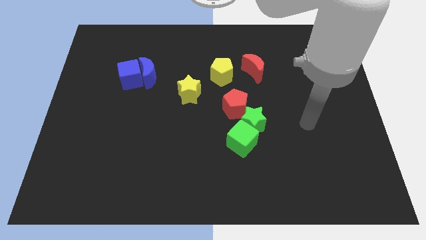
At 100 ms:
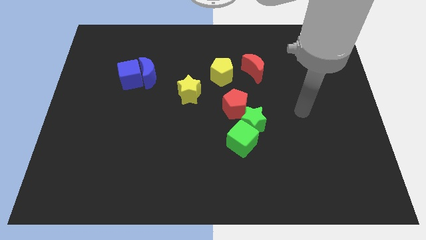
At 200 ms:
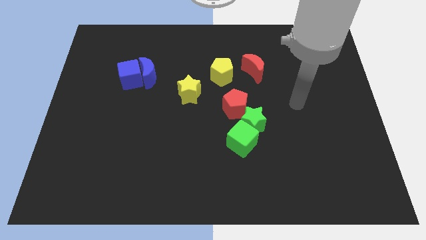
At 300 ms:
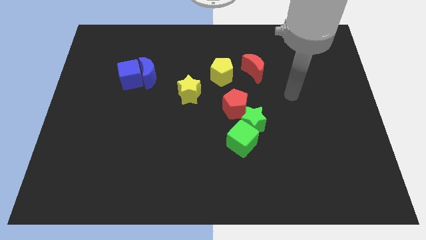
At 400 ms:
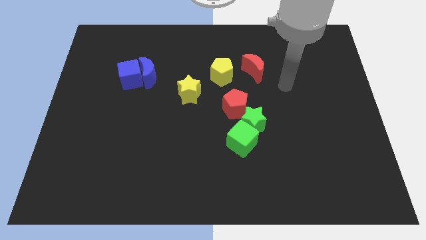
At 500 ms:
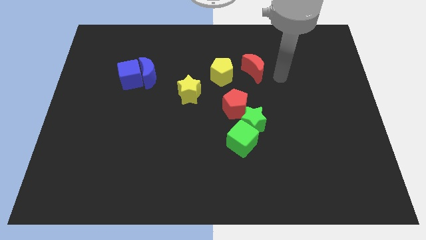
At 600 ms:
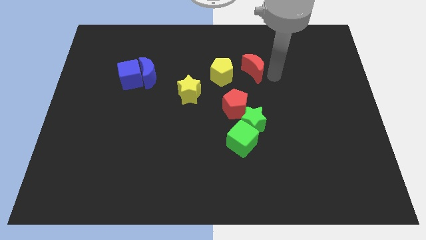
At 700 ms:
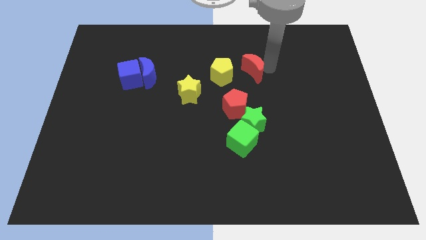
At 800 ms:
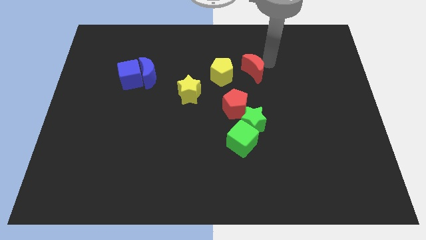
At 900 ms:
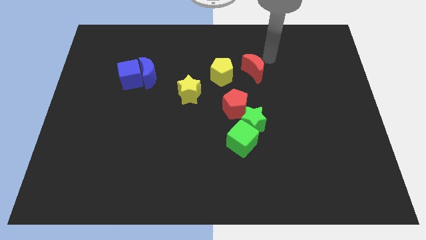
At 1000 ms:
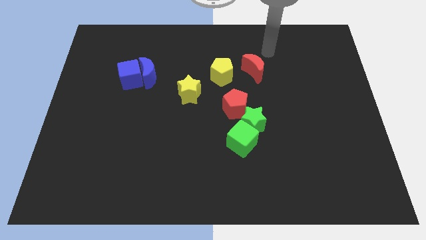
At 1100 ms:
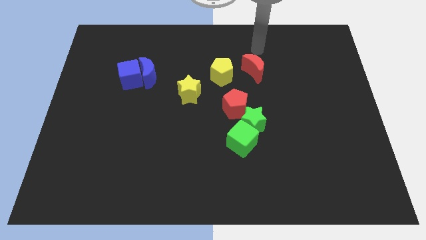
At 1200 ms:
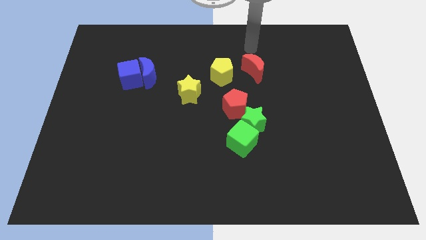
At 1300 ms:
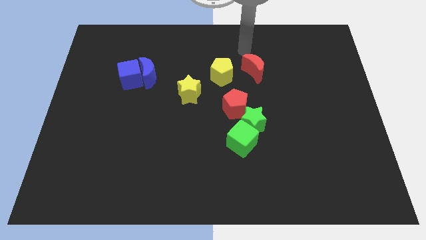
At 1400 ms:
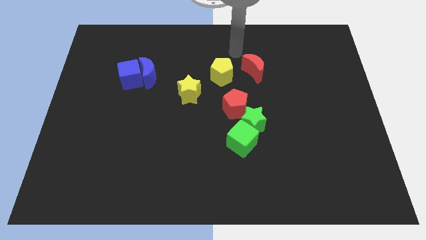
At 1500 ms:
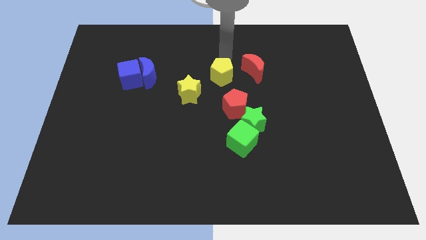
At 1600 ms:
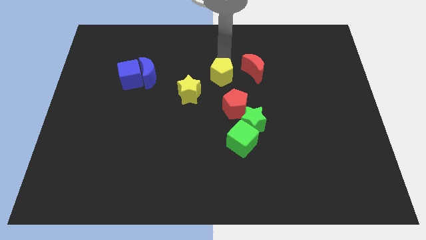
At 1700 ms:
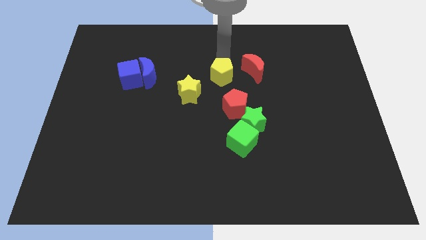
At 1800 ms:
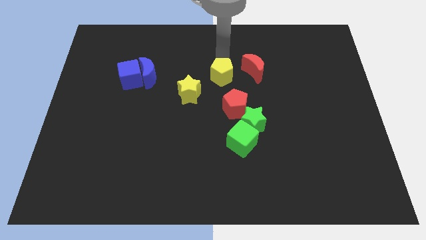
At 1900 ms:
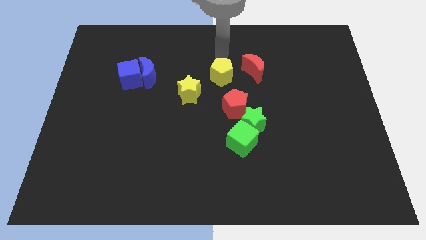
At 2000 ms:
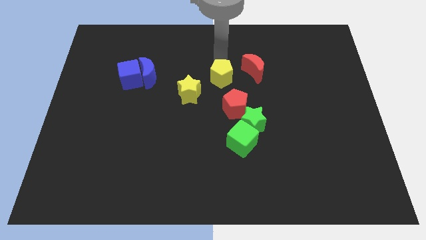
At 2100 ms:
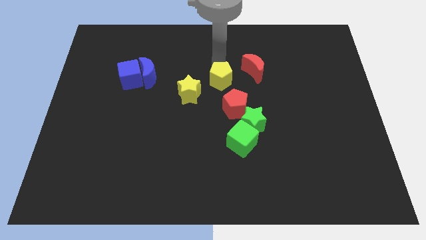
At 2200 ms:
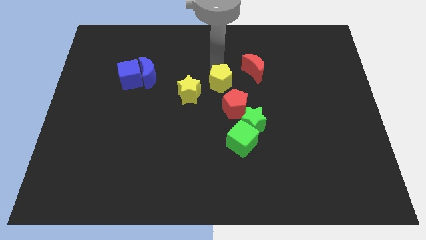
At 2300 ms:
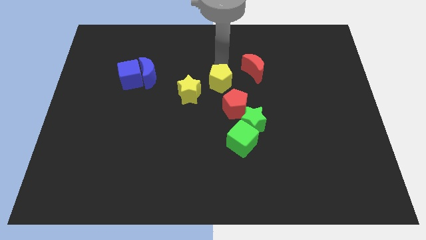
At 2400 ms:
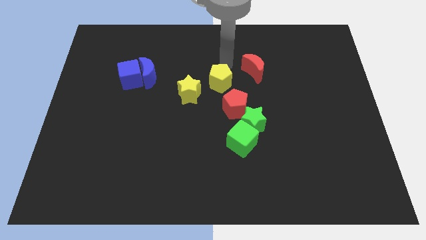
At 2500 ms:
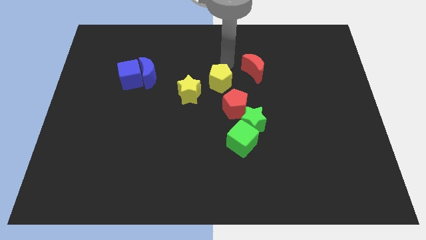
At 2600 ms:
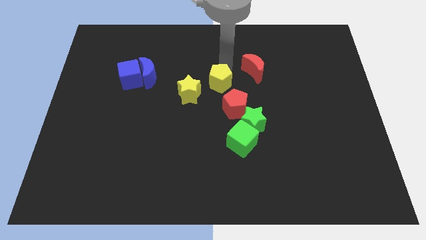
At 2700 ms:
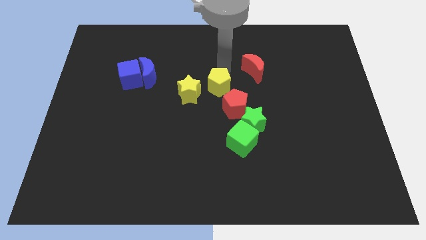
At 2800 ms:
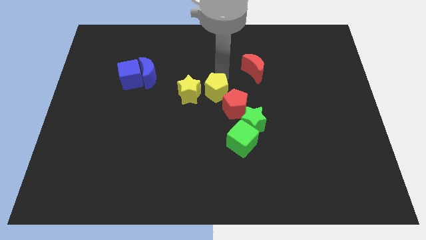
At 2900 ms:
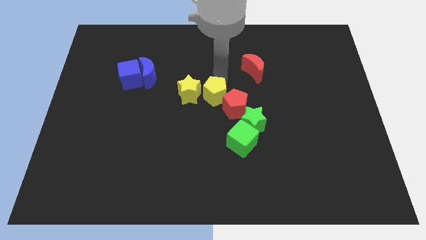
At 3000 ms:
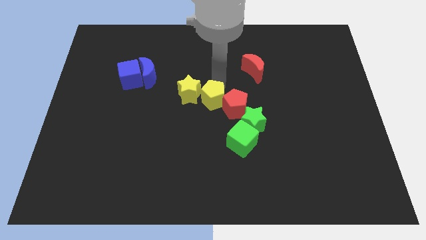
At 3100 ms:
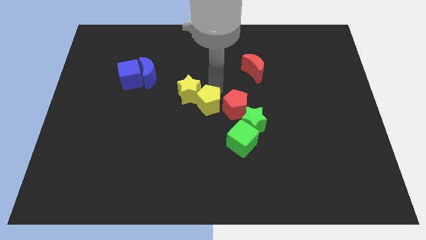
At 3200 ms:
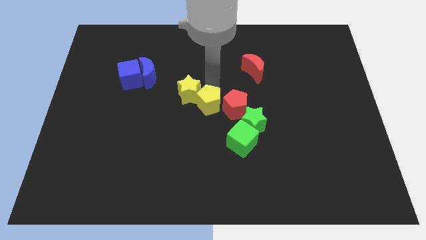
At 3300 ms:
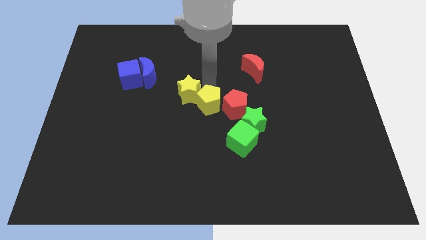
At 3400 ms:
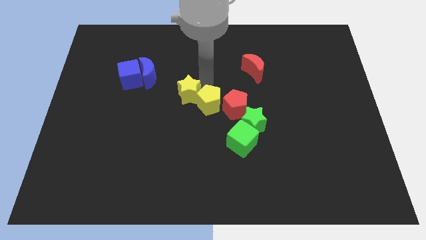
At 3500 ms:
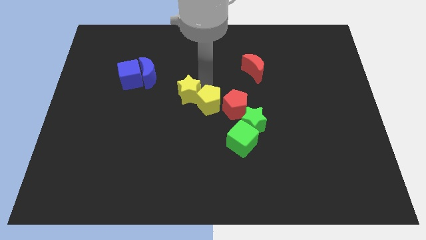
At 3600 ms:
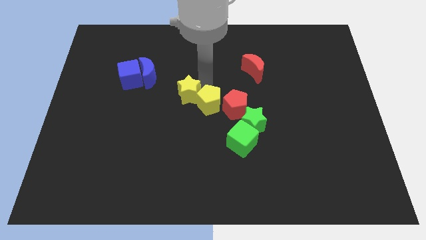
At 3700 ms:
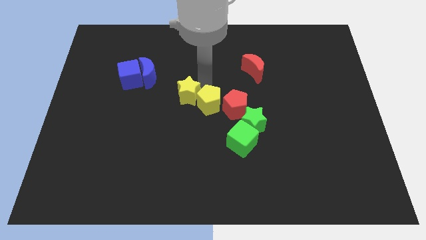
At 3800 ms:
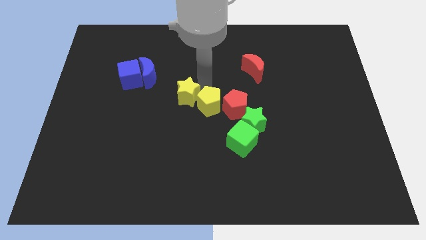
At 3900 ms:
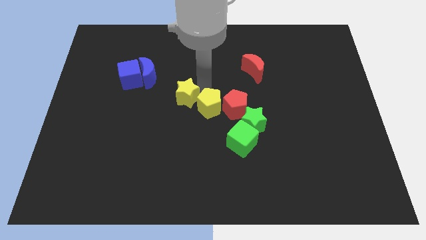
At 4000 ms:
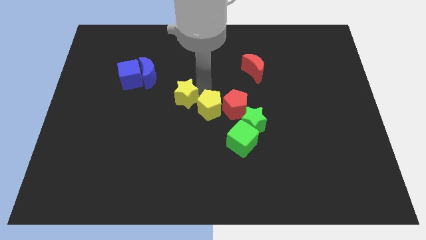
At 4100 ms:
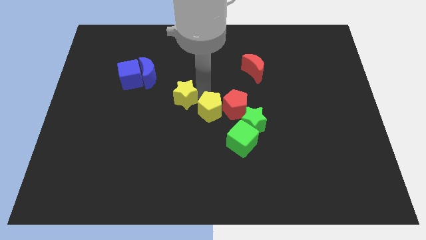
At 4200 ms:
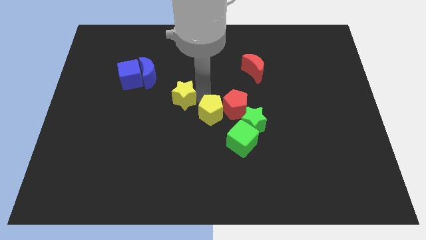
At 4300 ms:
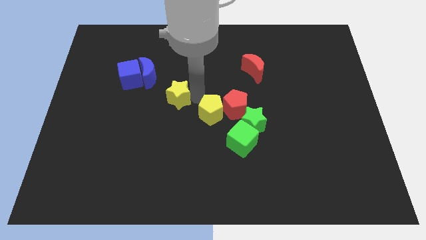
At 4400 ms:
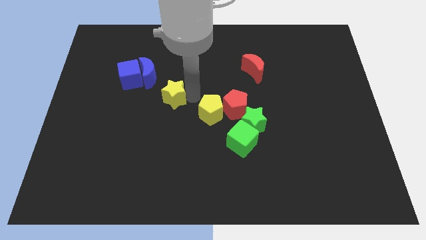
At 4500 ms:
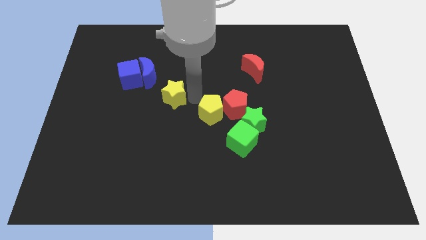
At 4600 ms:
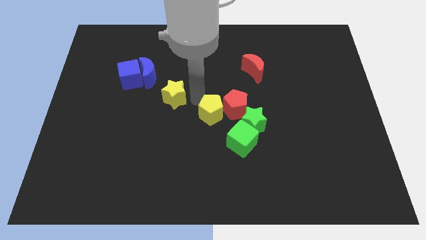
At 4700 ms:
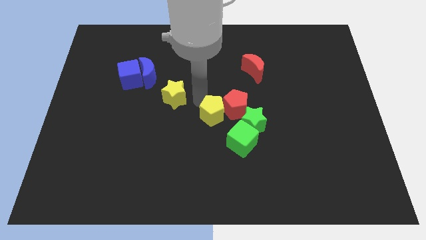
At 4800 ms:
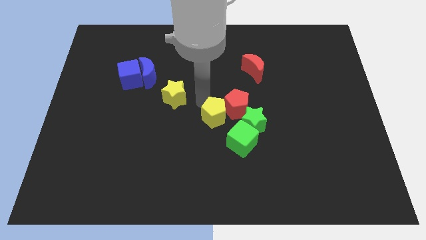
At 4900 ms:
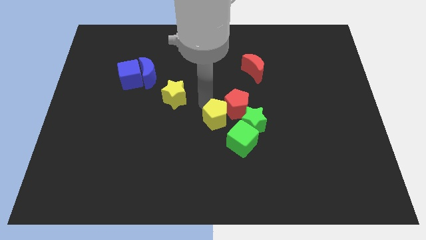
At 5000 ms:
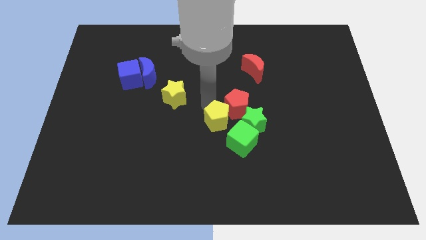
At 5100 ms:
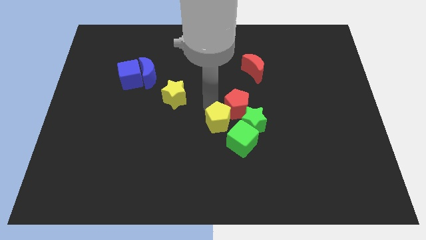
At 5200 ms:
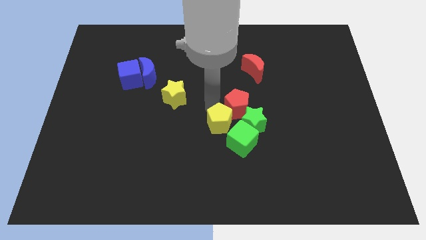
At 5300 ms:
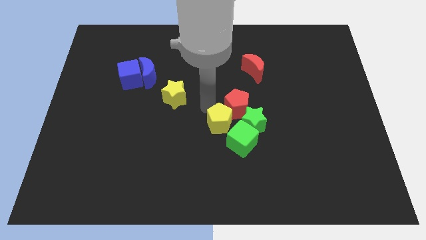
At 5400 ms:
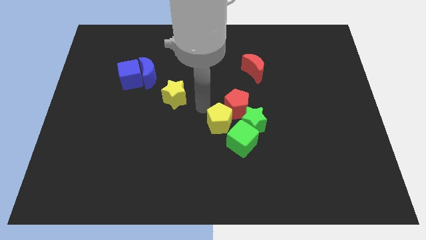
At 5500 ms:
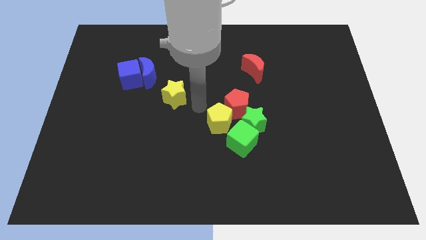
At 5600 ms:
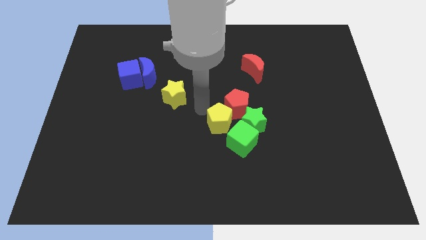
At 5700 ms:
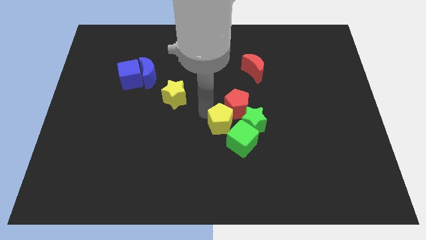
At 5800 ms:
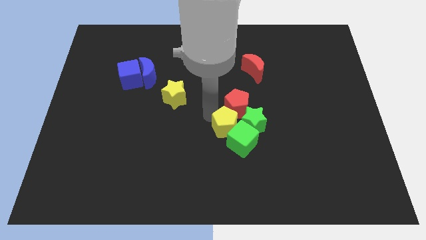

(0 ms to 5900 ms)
put the yellow pentagon close to the green cube

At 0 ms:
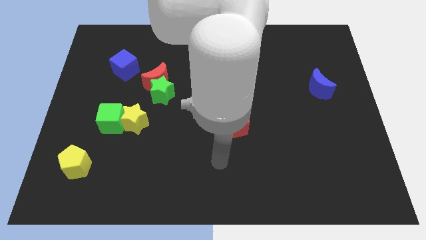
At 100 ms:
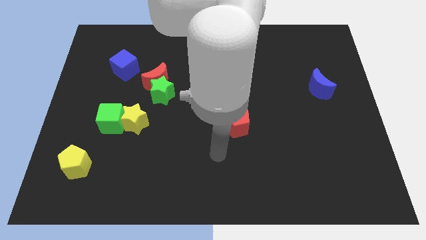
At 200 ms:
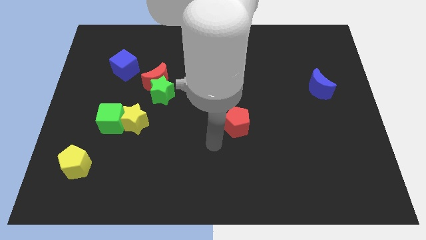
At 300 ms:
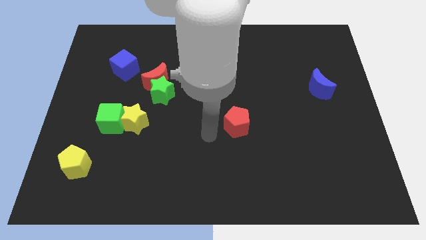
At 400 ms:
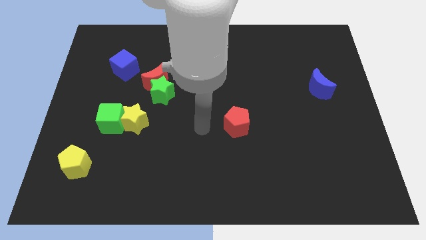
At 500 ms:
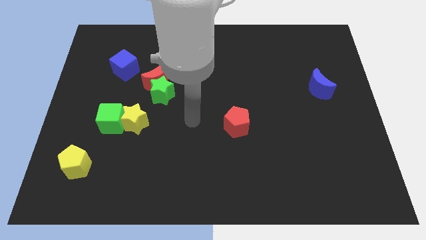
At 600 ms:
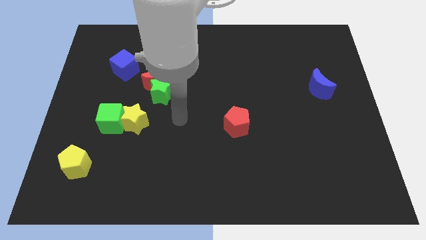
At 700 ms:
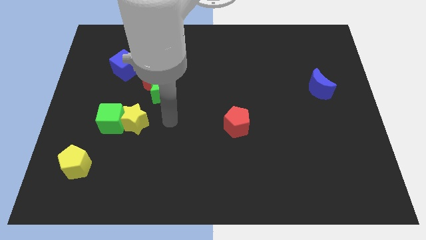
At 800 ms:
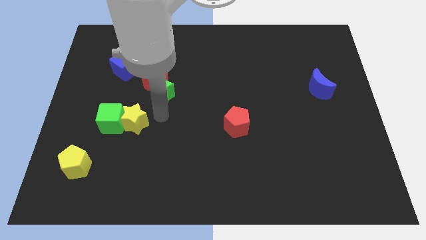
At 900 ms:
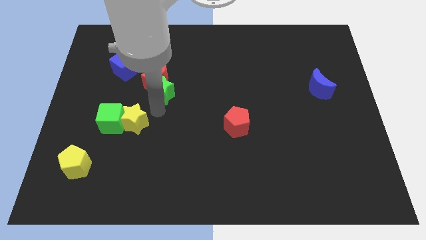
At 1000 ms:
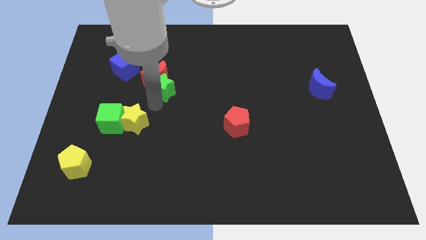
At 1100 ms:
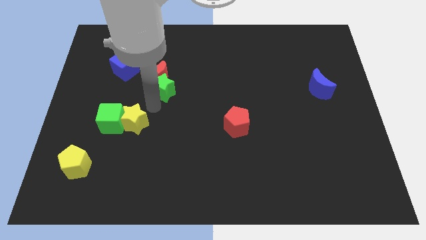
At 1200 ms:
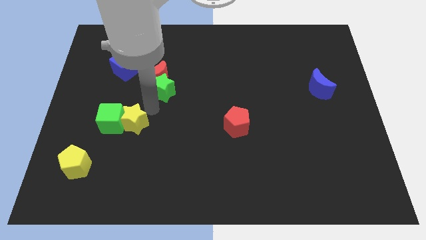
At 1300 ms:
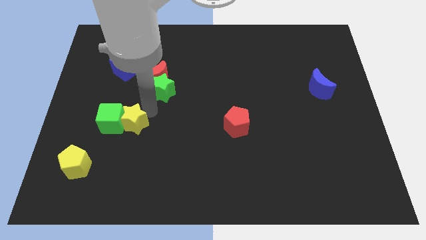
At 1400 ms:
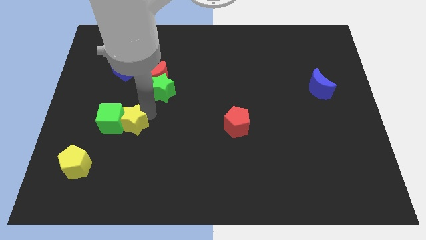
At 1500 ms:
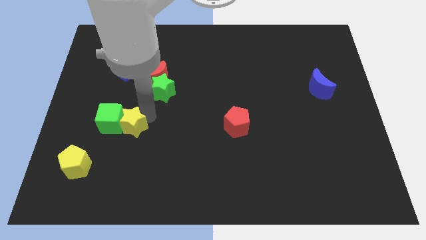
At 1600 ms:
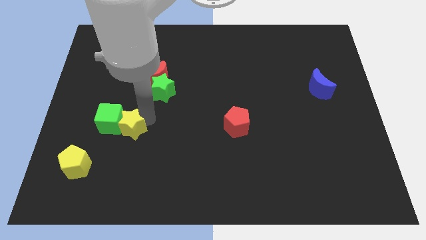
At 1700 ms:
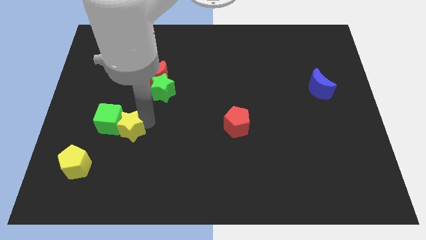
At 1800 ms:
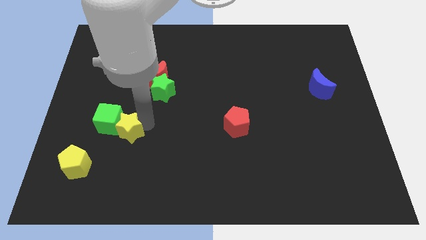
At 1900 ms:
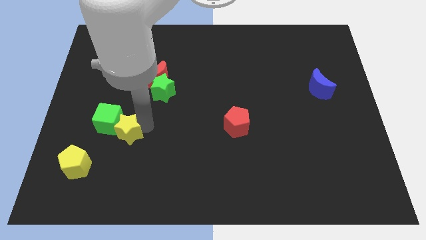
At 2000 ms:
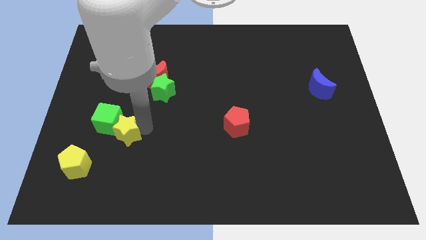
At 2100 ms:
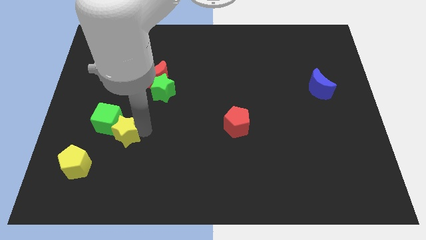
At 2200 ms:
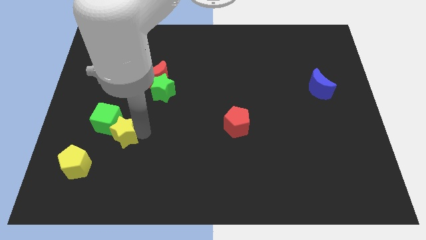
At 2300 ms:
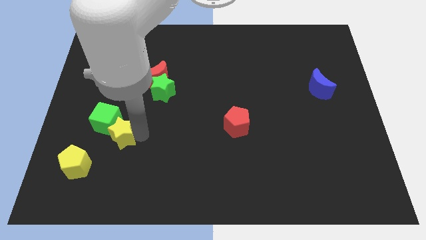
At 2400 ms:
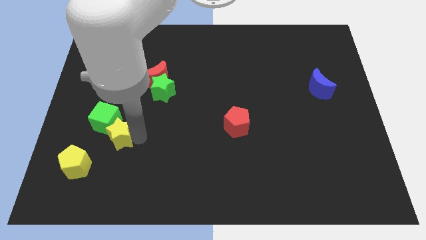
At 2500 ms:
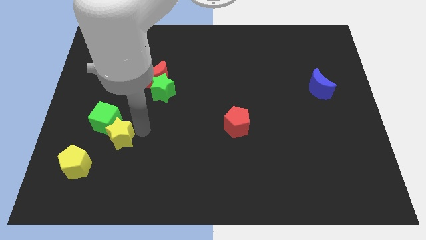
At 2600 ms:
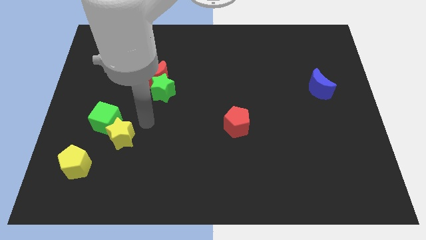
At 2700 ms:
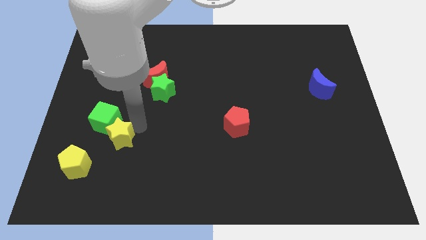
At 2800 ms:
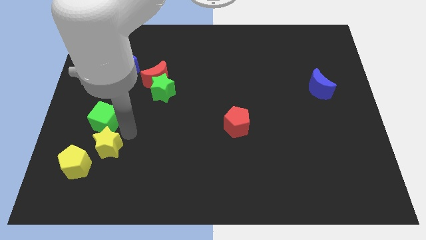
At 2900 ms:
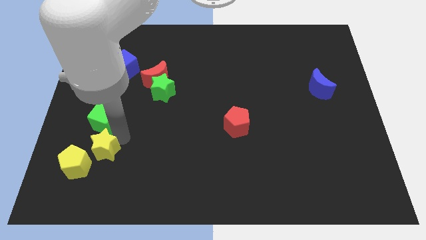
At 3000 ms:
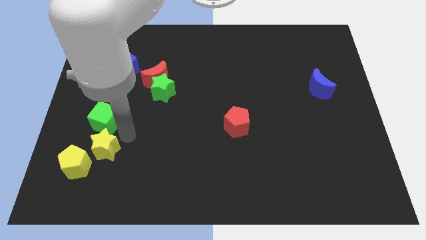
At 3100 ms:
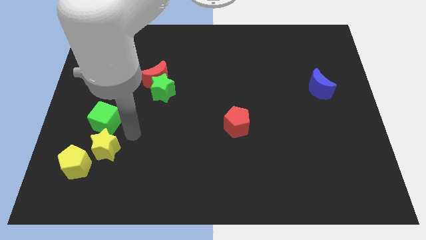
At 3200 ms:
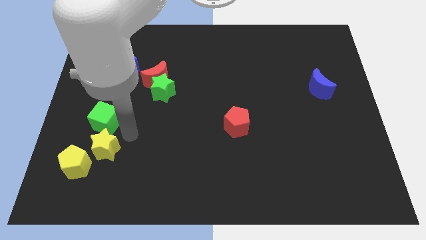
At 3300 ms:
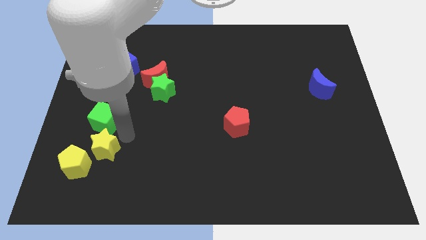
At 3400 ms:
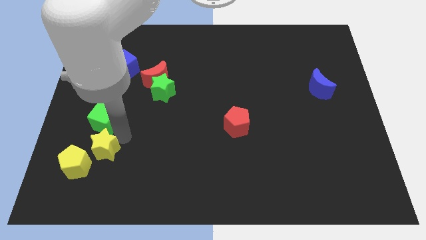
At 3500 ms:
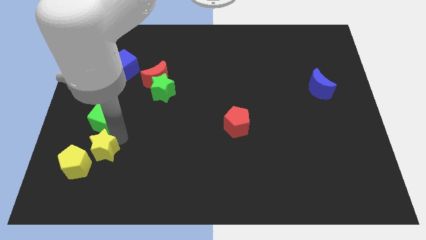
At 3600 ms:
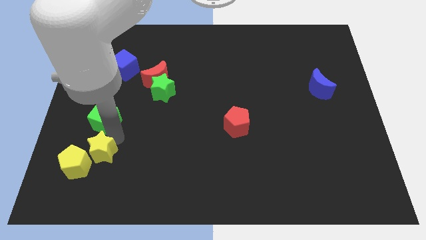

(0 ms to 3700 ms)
move the yellow star close to the yellow pentagon
